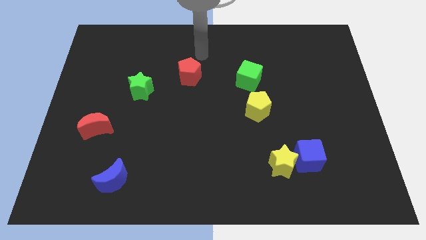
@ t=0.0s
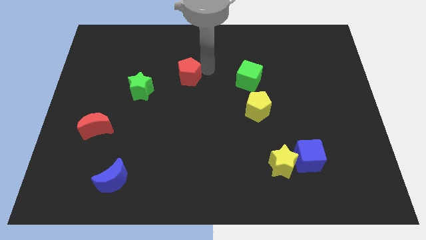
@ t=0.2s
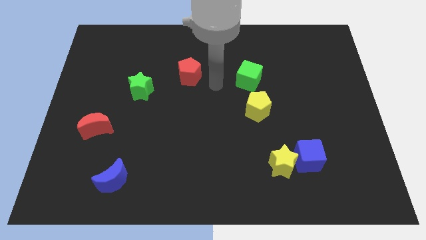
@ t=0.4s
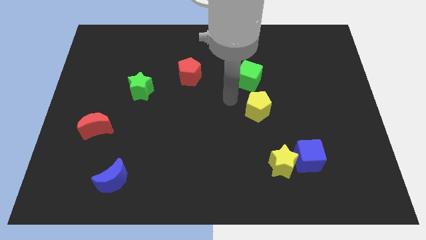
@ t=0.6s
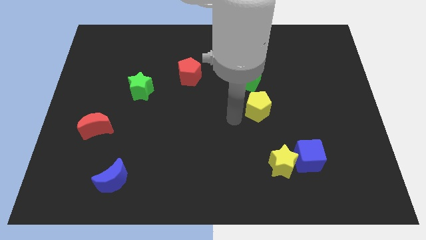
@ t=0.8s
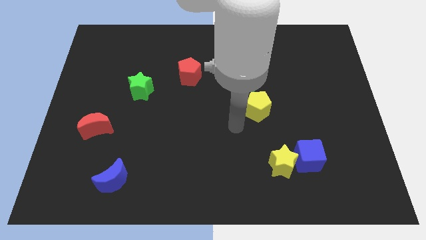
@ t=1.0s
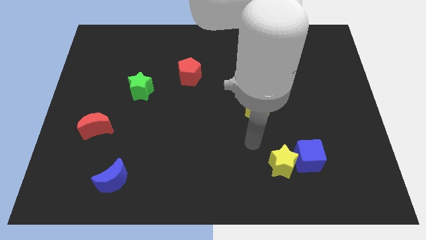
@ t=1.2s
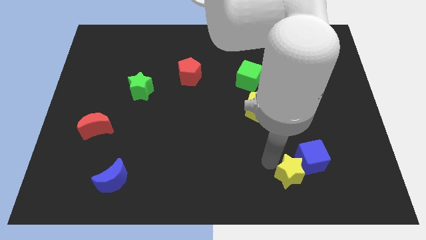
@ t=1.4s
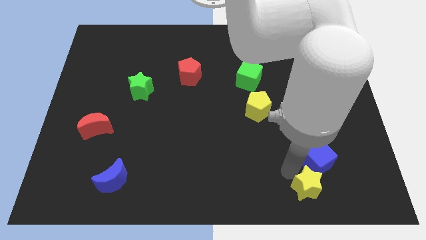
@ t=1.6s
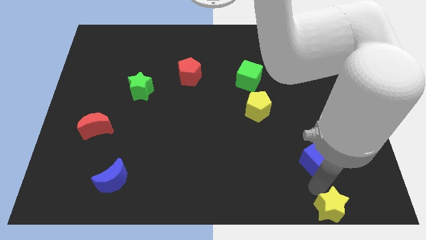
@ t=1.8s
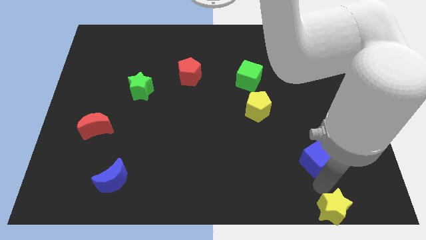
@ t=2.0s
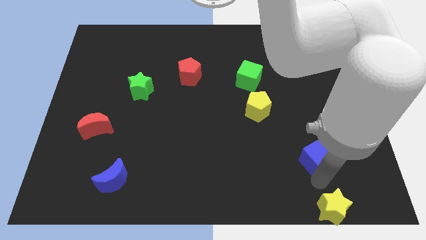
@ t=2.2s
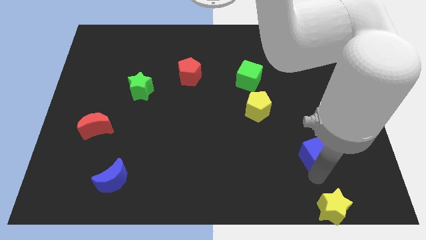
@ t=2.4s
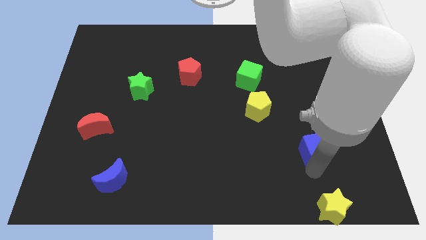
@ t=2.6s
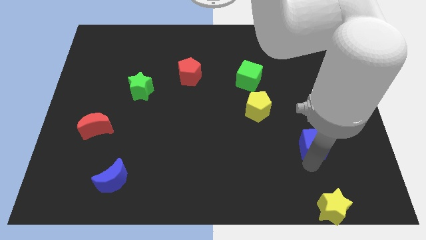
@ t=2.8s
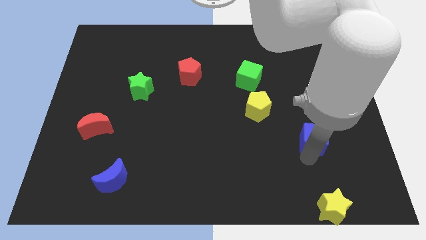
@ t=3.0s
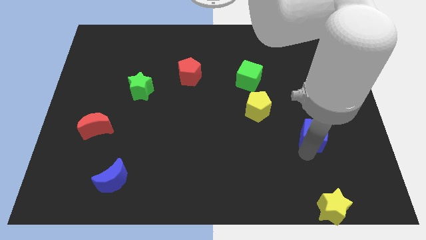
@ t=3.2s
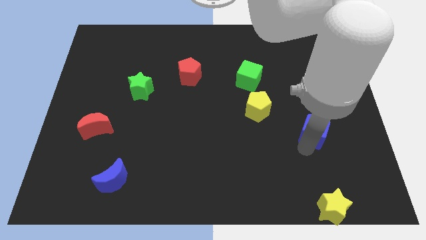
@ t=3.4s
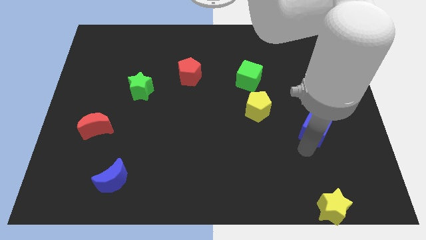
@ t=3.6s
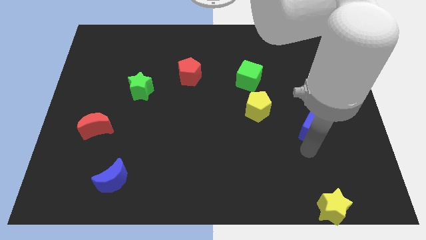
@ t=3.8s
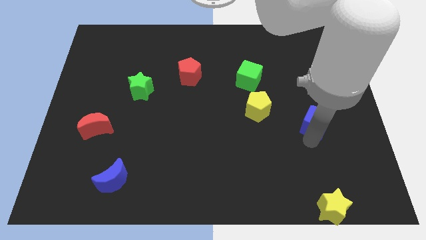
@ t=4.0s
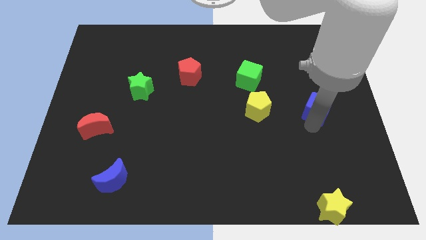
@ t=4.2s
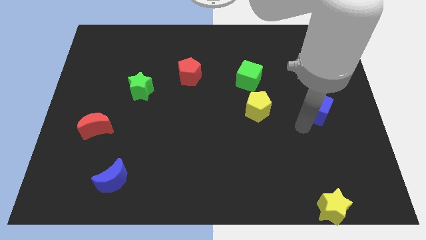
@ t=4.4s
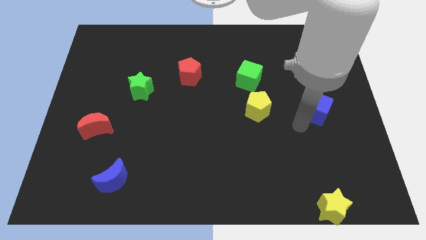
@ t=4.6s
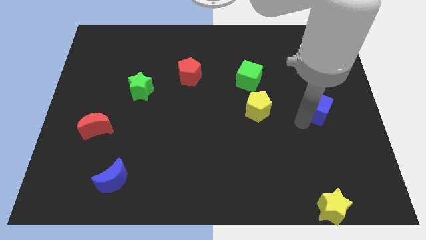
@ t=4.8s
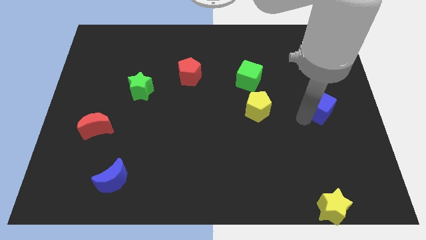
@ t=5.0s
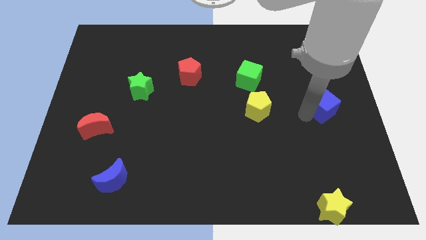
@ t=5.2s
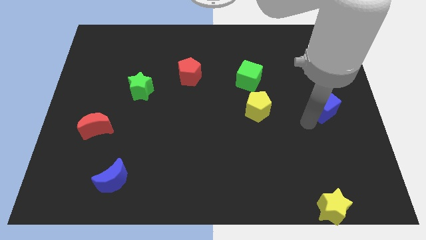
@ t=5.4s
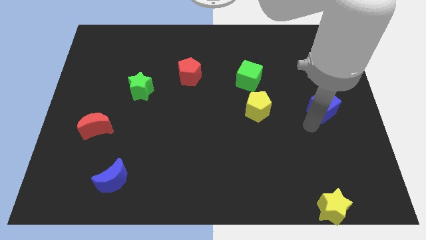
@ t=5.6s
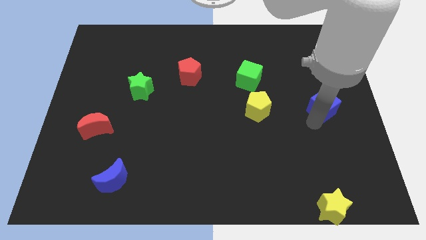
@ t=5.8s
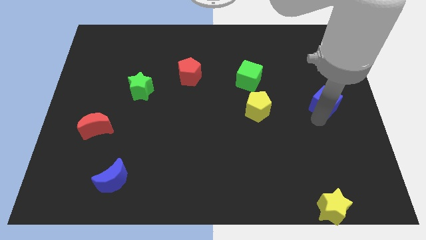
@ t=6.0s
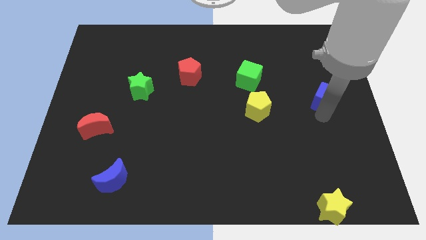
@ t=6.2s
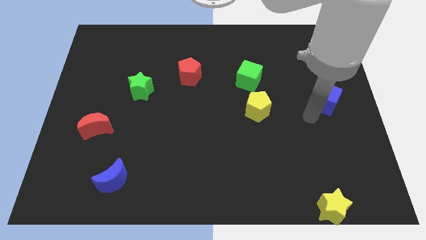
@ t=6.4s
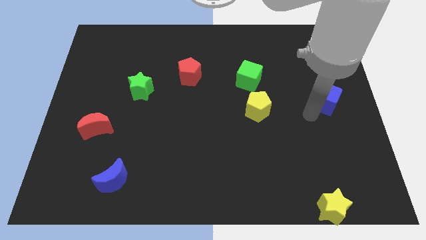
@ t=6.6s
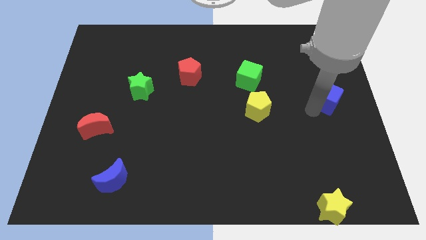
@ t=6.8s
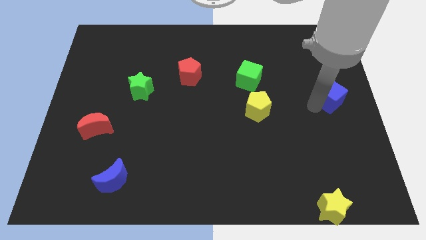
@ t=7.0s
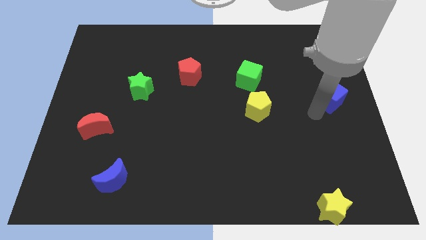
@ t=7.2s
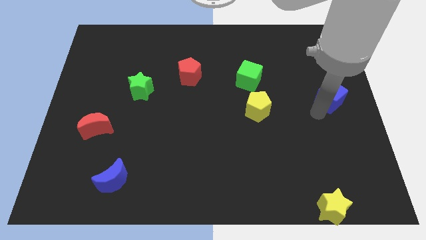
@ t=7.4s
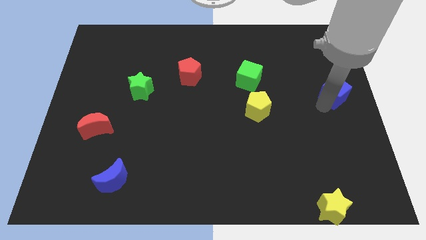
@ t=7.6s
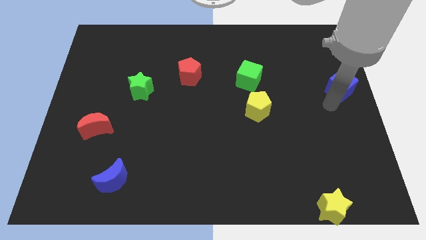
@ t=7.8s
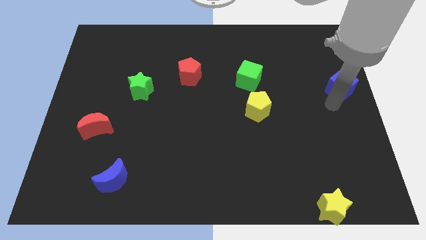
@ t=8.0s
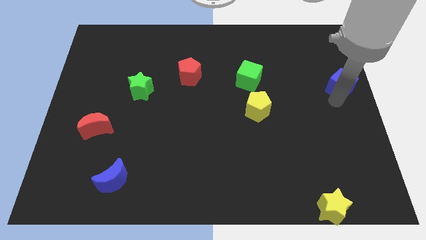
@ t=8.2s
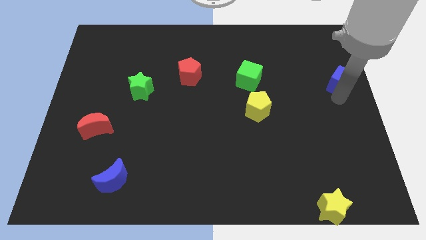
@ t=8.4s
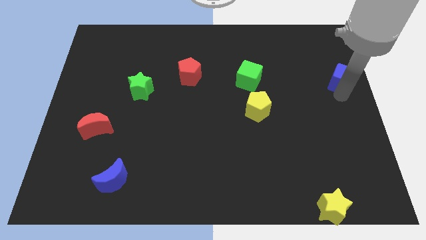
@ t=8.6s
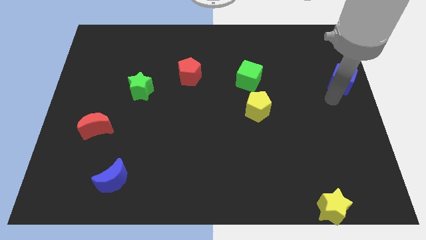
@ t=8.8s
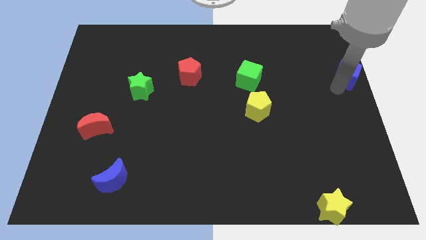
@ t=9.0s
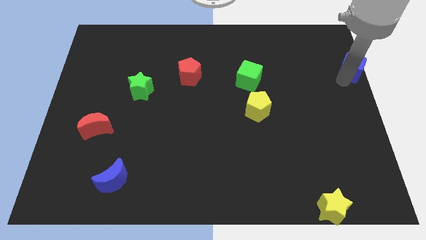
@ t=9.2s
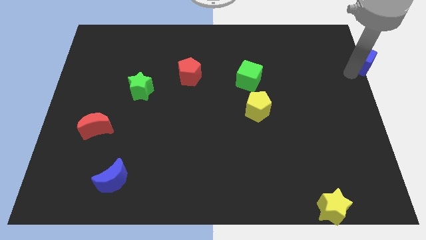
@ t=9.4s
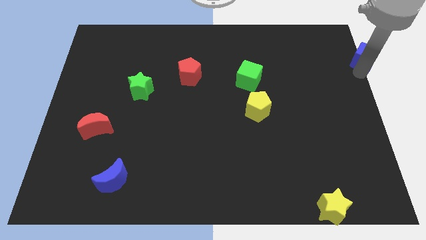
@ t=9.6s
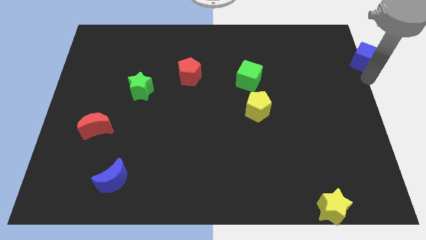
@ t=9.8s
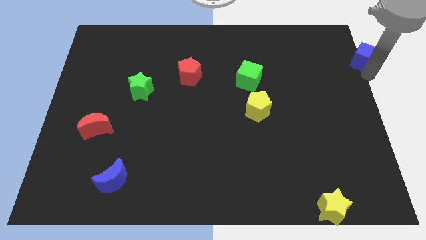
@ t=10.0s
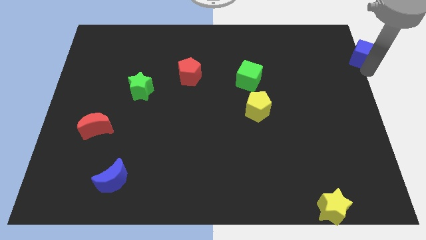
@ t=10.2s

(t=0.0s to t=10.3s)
move the blue cube to the upper right corner
